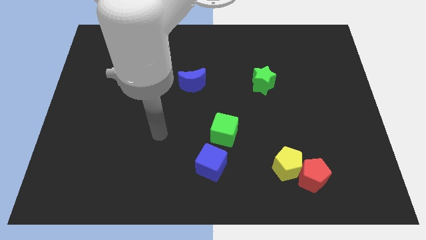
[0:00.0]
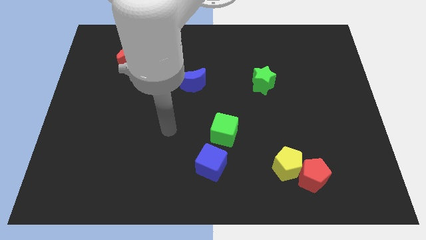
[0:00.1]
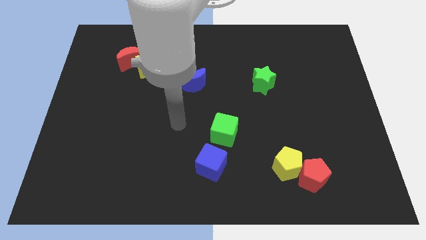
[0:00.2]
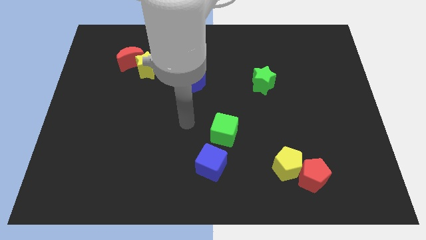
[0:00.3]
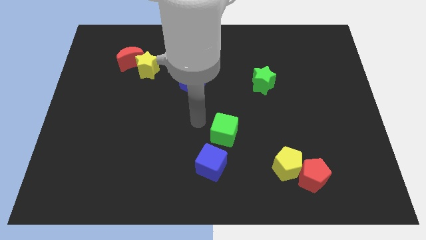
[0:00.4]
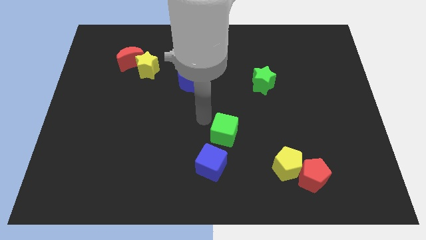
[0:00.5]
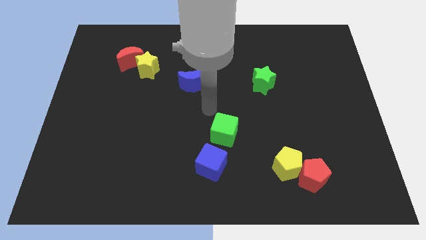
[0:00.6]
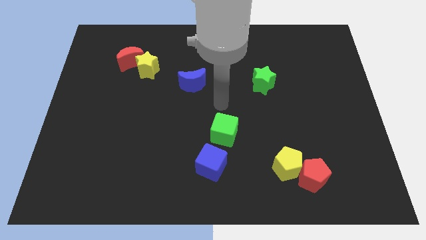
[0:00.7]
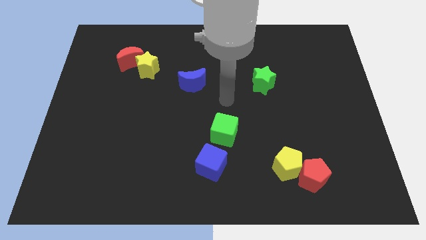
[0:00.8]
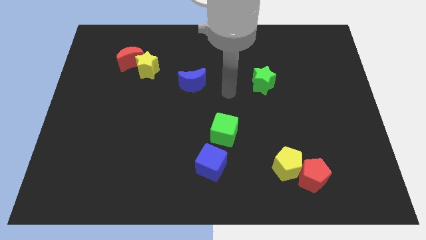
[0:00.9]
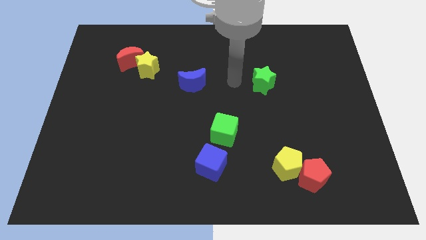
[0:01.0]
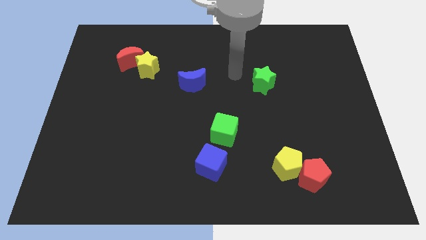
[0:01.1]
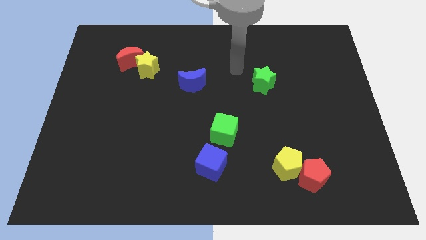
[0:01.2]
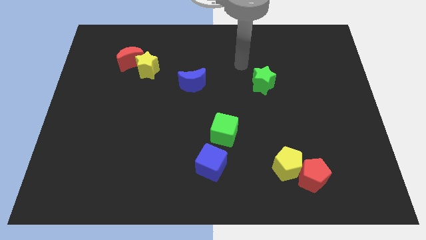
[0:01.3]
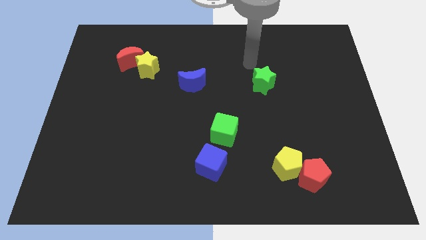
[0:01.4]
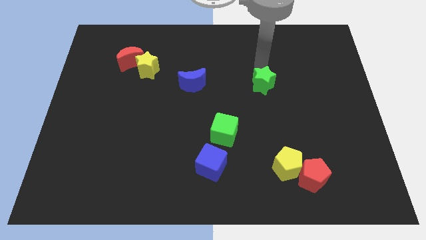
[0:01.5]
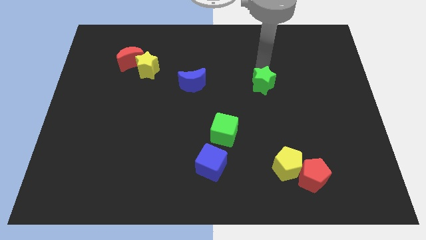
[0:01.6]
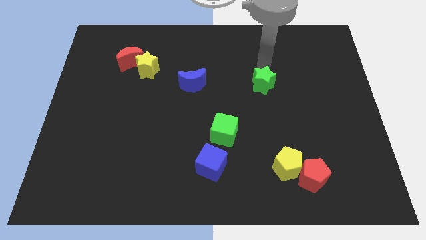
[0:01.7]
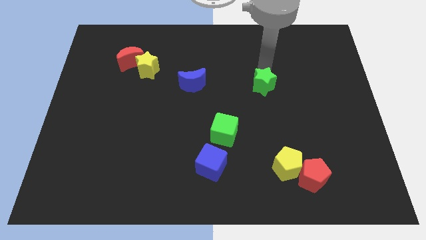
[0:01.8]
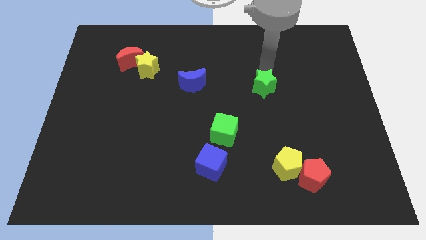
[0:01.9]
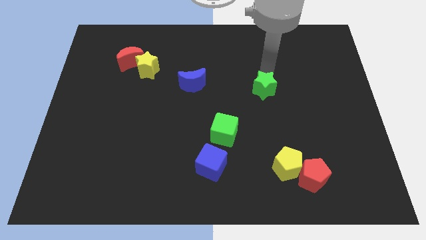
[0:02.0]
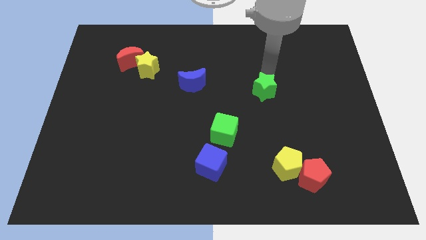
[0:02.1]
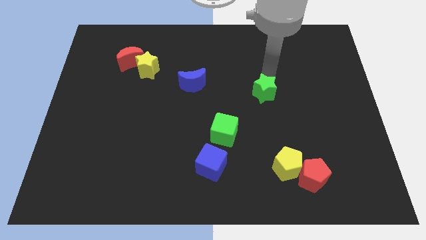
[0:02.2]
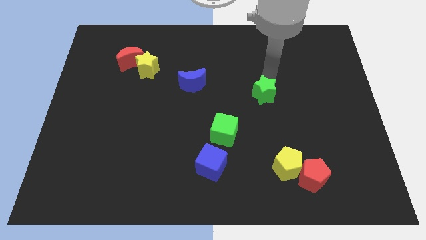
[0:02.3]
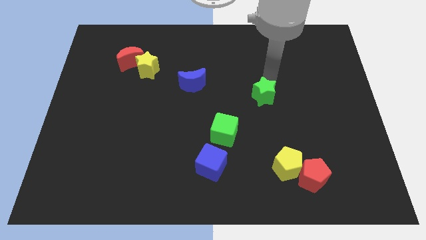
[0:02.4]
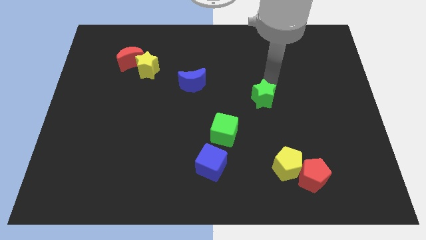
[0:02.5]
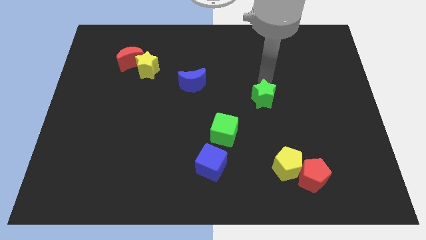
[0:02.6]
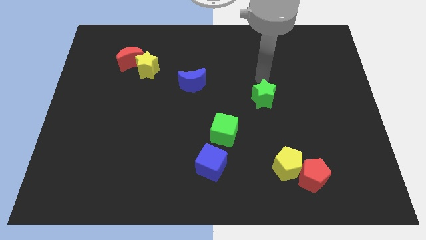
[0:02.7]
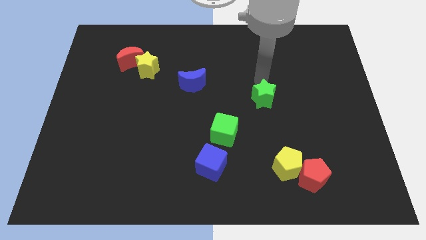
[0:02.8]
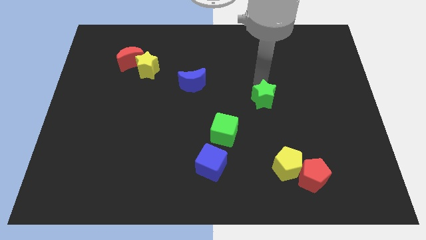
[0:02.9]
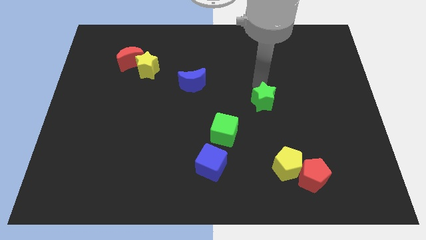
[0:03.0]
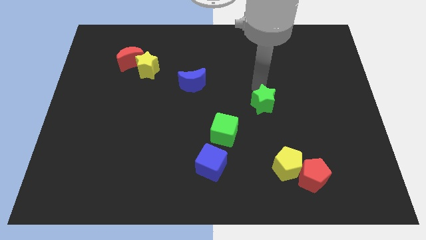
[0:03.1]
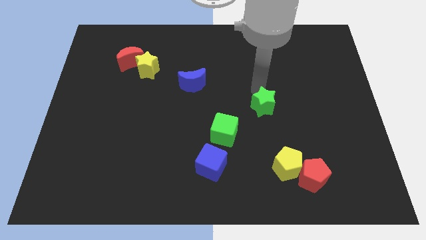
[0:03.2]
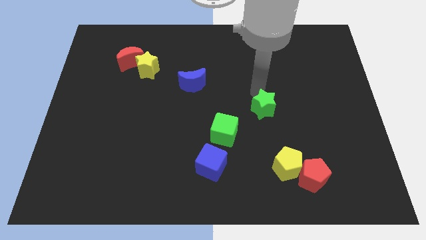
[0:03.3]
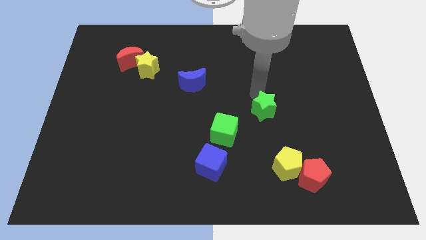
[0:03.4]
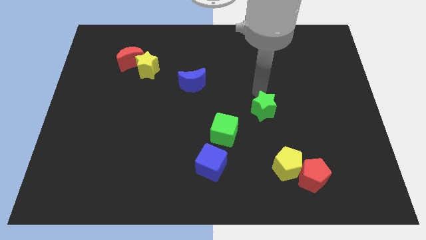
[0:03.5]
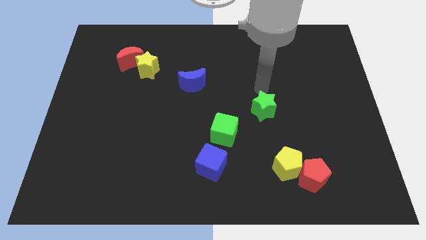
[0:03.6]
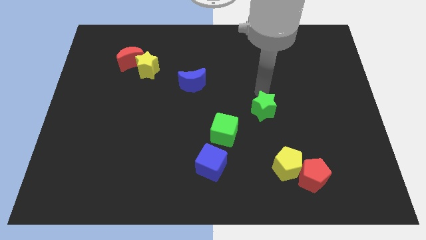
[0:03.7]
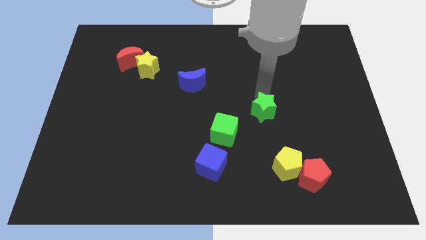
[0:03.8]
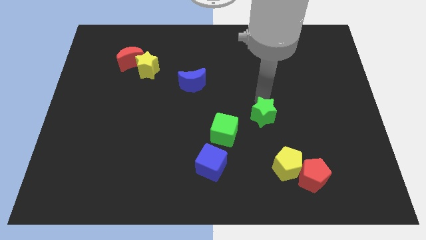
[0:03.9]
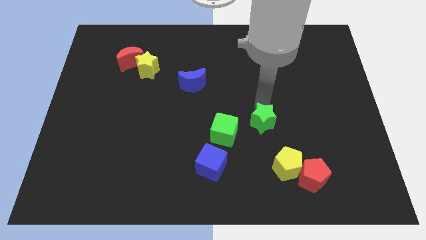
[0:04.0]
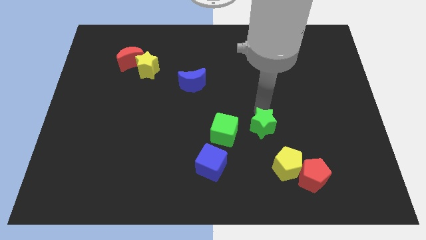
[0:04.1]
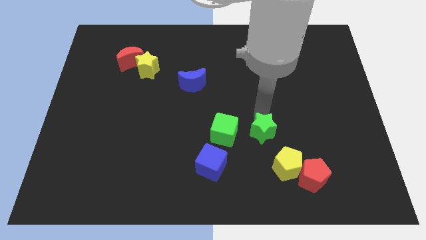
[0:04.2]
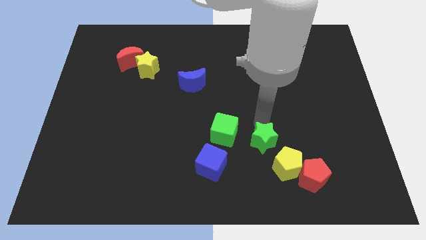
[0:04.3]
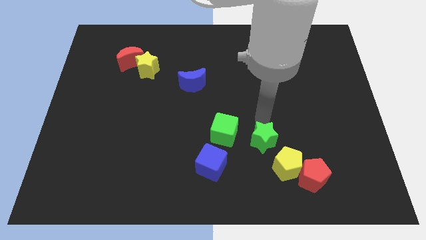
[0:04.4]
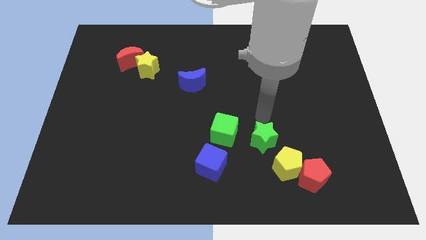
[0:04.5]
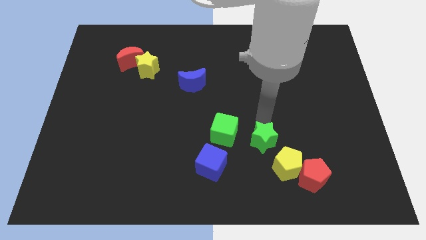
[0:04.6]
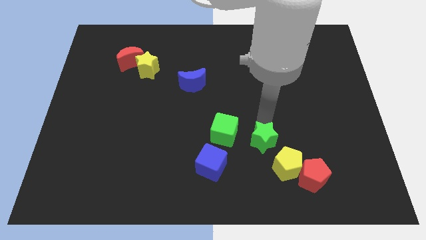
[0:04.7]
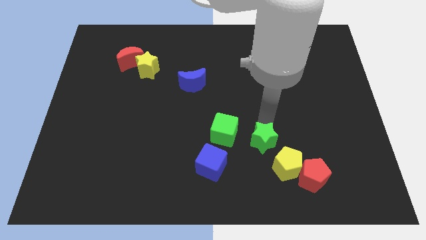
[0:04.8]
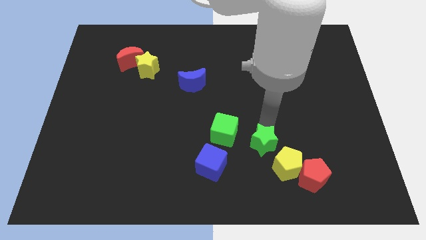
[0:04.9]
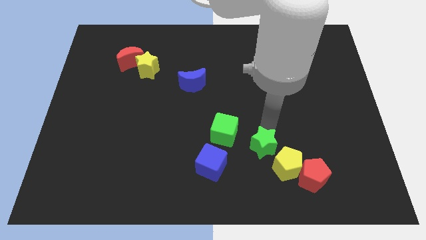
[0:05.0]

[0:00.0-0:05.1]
slide the green star right of the blue cube

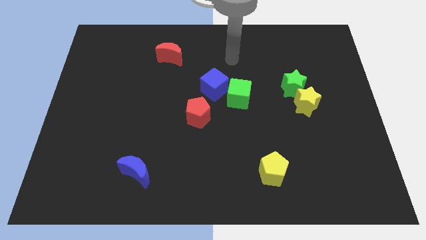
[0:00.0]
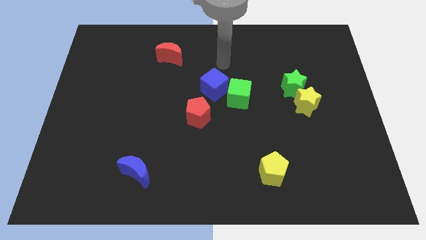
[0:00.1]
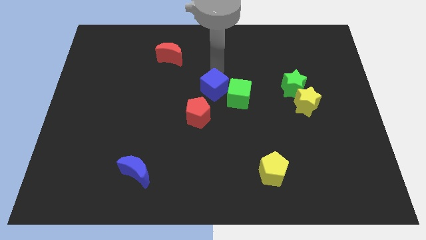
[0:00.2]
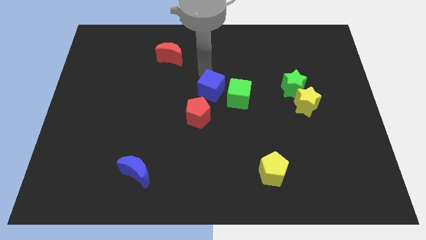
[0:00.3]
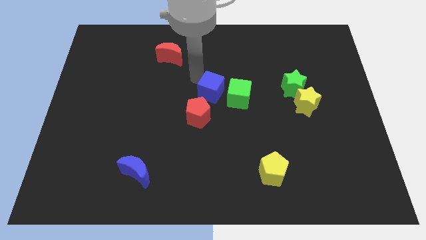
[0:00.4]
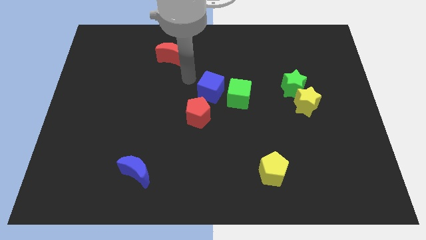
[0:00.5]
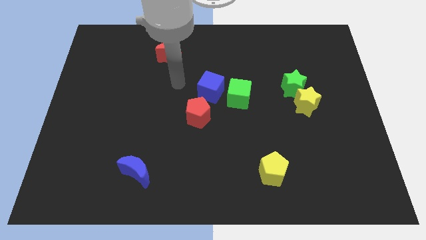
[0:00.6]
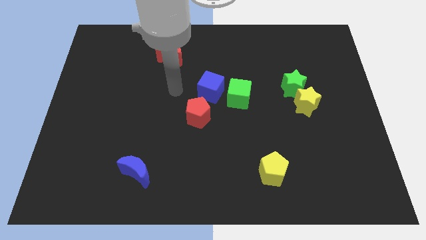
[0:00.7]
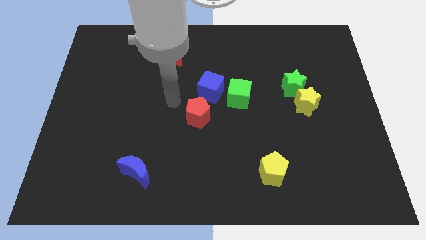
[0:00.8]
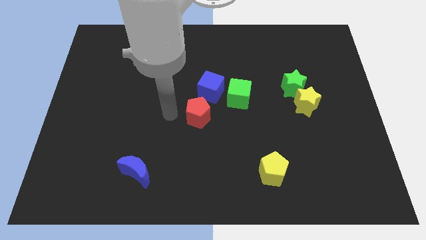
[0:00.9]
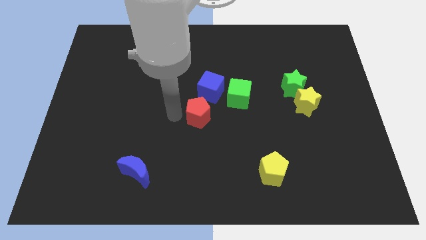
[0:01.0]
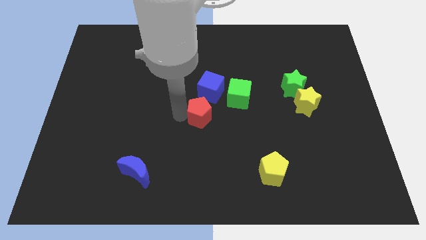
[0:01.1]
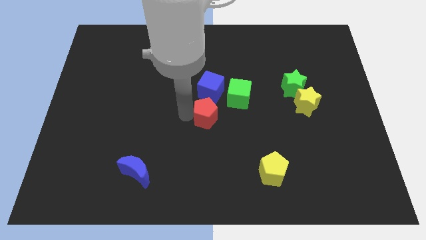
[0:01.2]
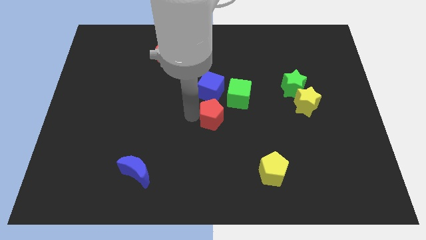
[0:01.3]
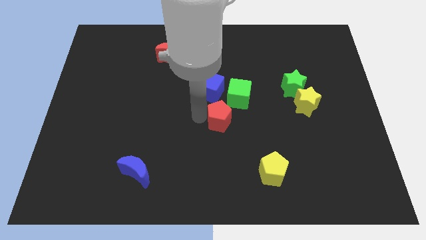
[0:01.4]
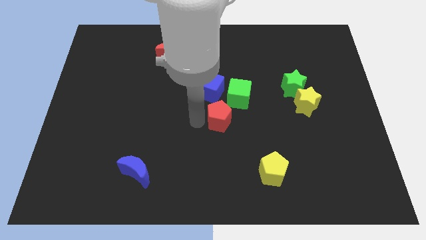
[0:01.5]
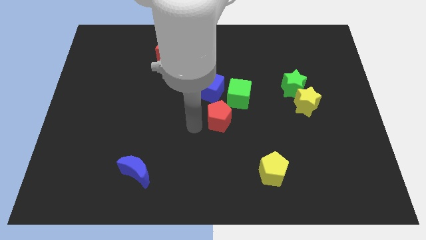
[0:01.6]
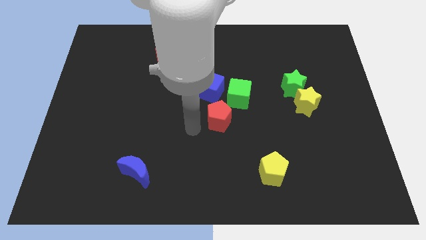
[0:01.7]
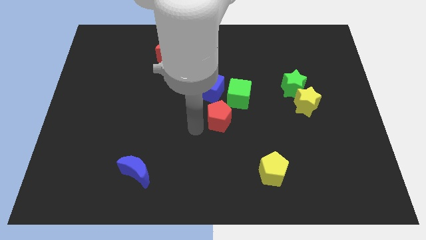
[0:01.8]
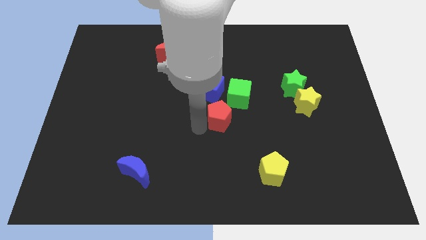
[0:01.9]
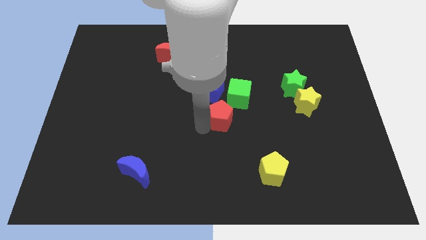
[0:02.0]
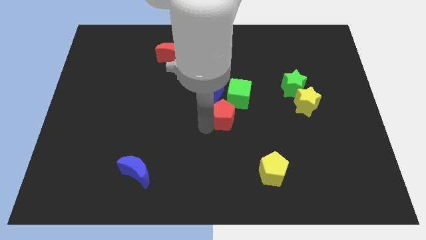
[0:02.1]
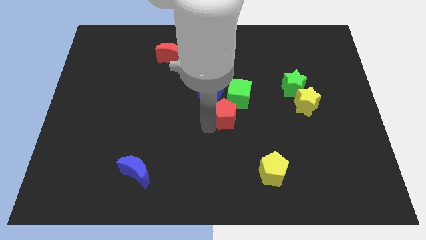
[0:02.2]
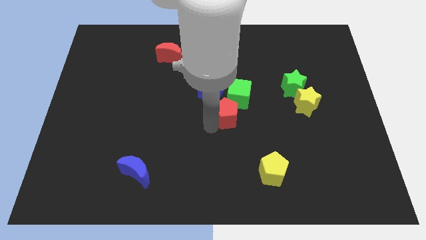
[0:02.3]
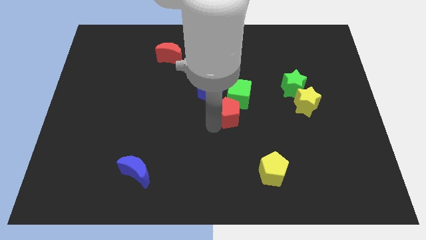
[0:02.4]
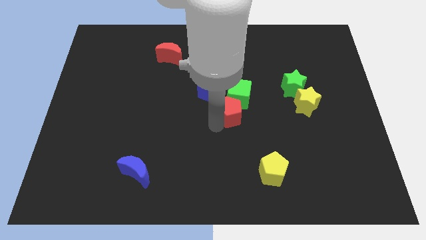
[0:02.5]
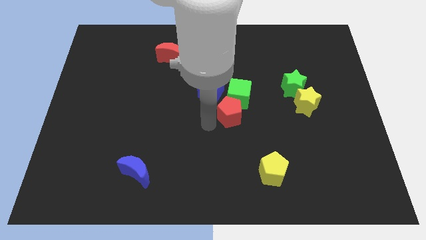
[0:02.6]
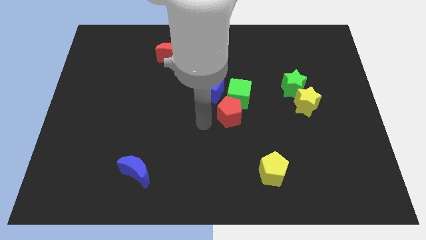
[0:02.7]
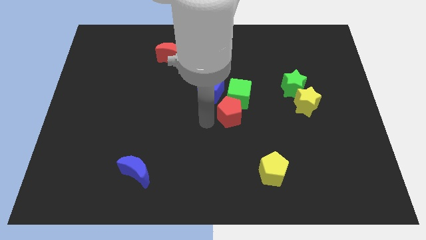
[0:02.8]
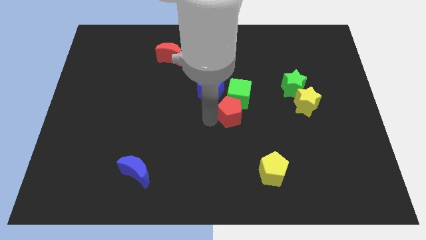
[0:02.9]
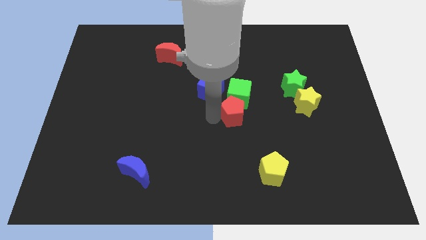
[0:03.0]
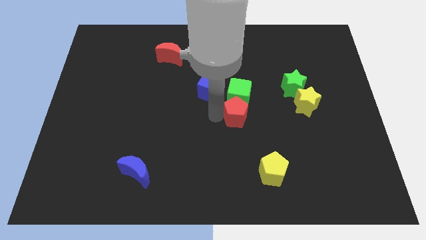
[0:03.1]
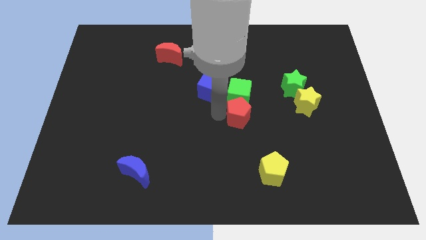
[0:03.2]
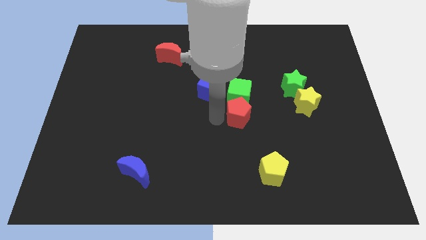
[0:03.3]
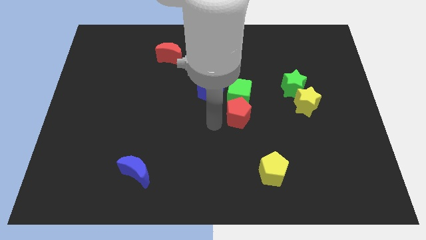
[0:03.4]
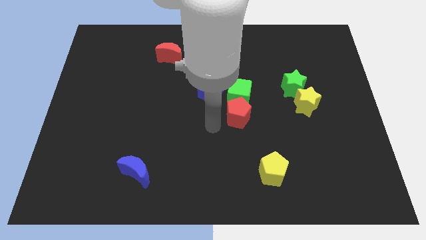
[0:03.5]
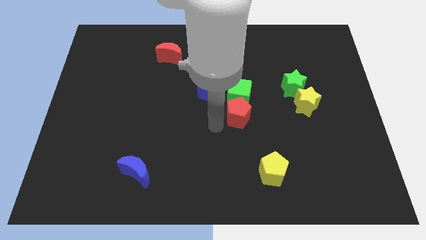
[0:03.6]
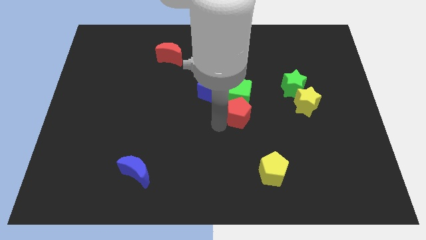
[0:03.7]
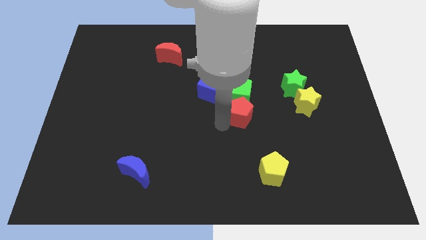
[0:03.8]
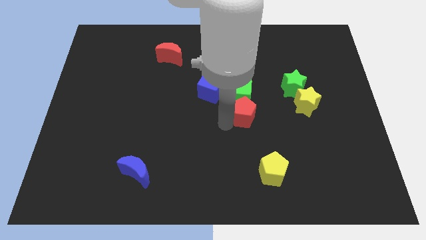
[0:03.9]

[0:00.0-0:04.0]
move the red pentagon left of the yellow star
